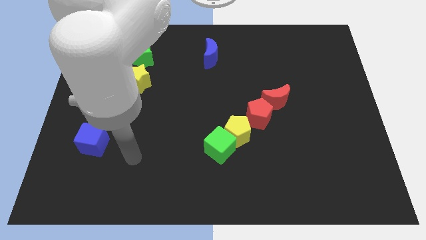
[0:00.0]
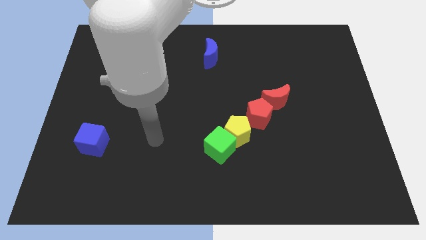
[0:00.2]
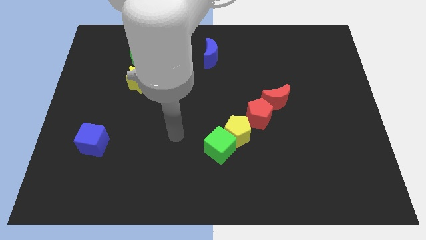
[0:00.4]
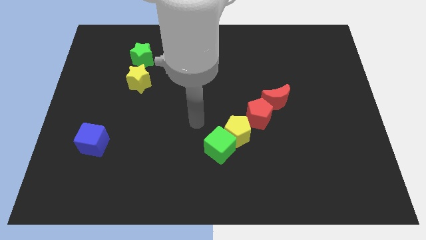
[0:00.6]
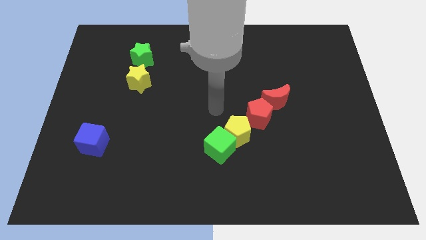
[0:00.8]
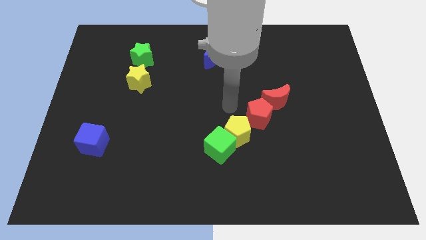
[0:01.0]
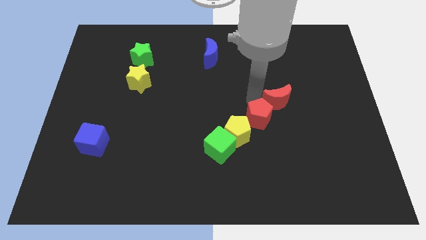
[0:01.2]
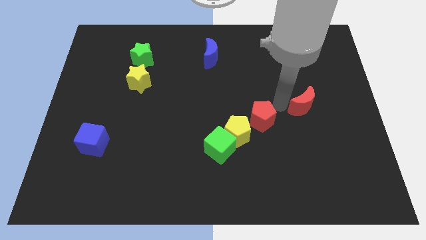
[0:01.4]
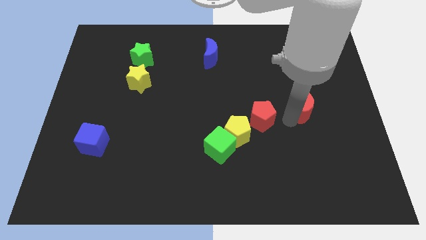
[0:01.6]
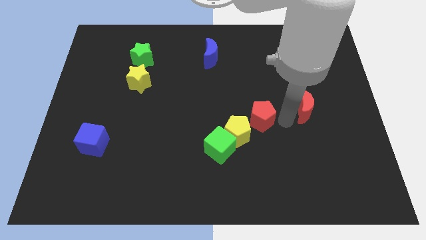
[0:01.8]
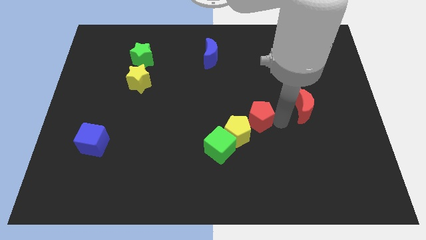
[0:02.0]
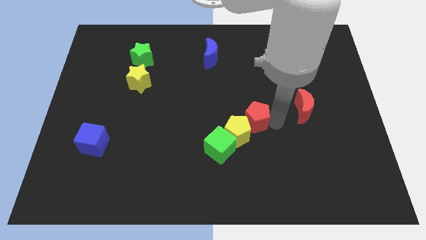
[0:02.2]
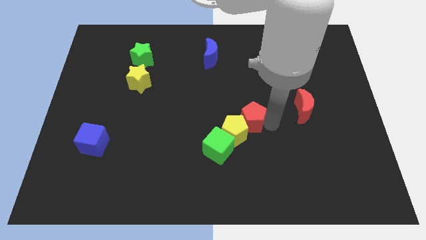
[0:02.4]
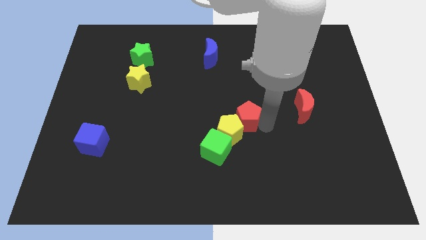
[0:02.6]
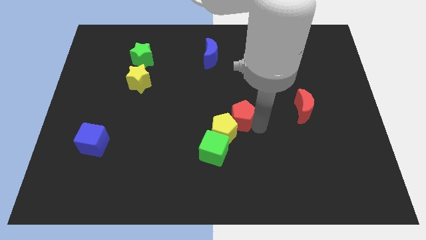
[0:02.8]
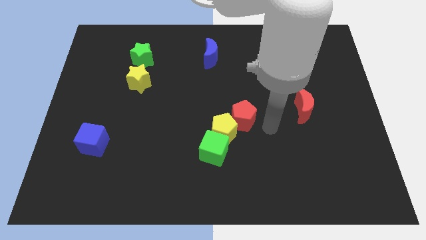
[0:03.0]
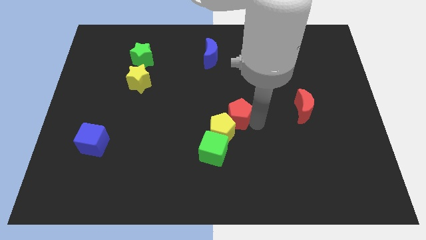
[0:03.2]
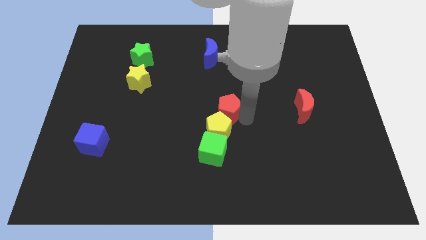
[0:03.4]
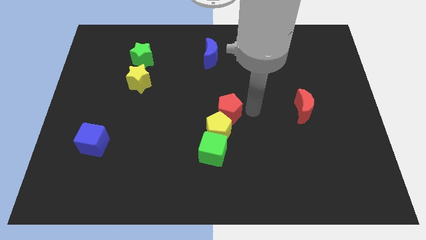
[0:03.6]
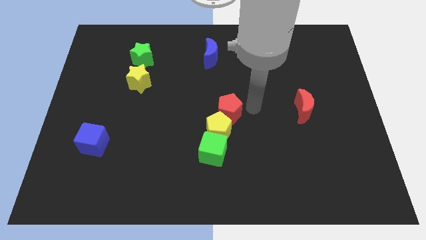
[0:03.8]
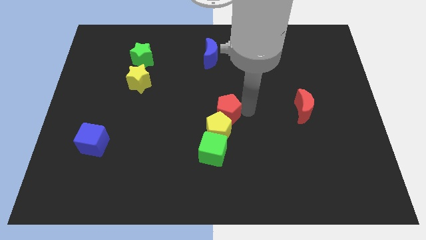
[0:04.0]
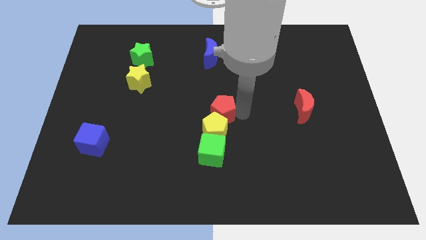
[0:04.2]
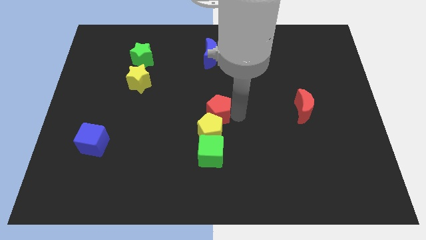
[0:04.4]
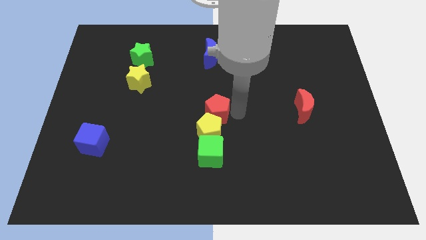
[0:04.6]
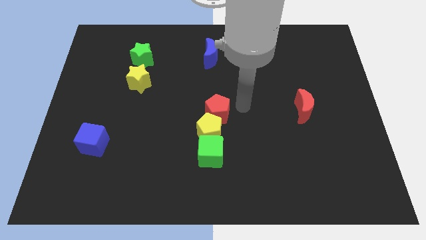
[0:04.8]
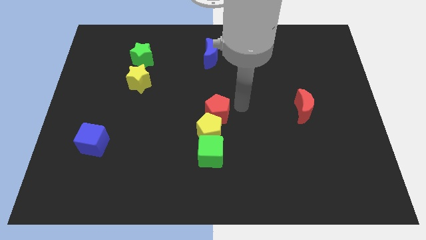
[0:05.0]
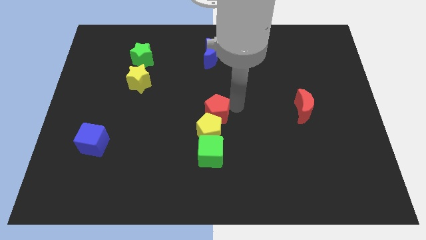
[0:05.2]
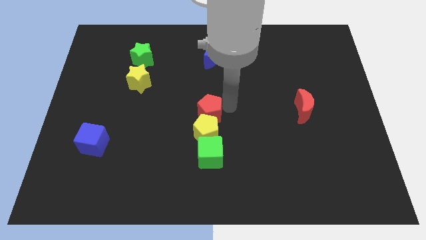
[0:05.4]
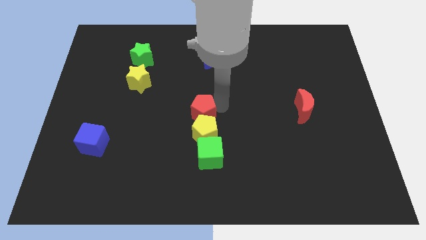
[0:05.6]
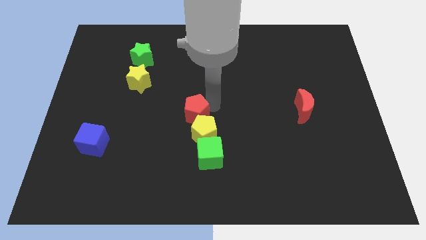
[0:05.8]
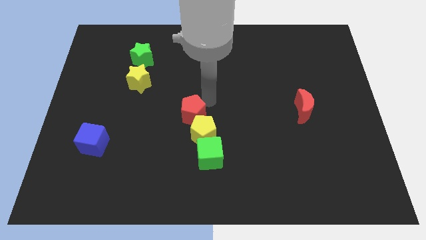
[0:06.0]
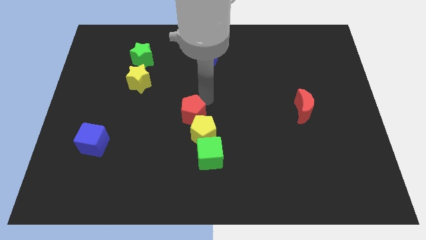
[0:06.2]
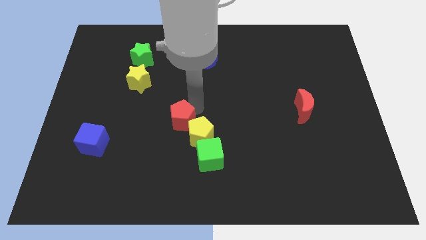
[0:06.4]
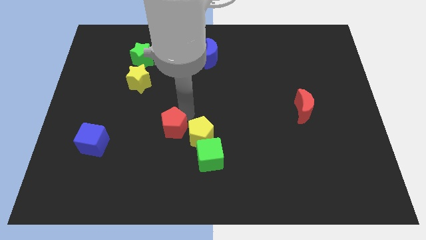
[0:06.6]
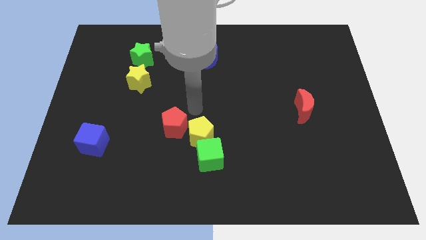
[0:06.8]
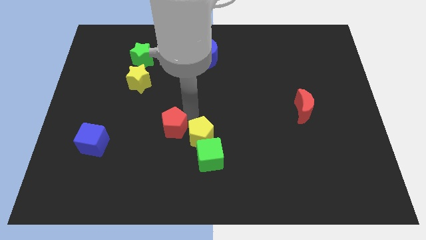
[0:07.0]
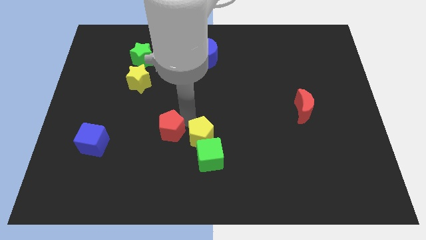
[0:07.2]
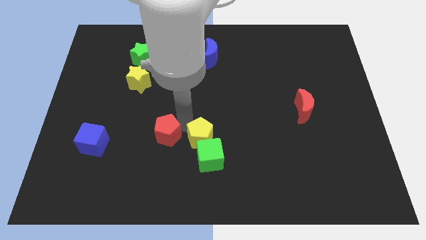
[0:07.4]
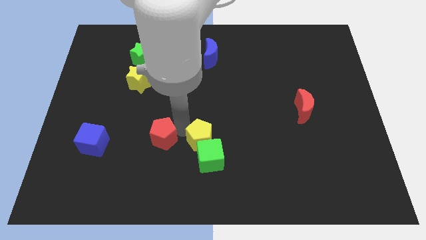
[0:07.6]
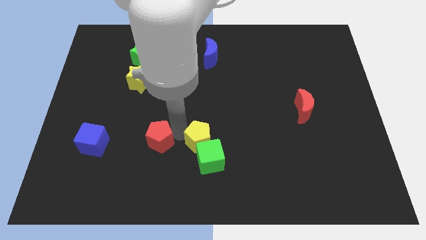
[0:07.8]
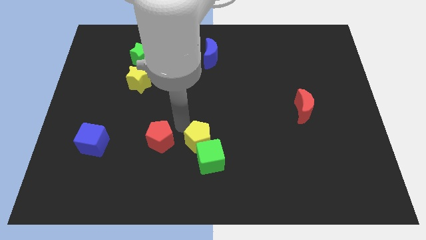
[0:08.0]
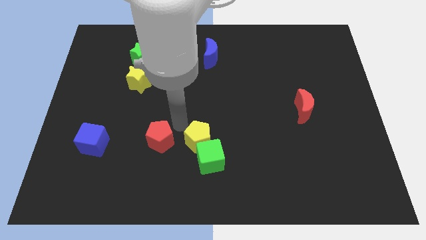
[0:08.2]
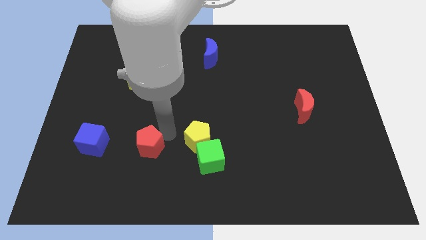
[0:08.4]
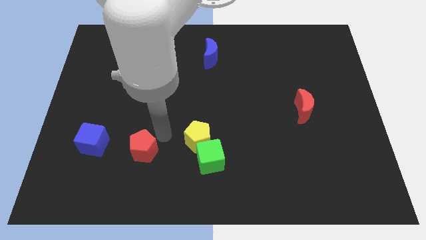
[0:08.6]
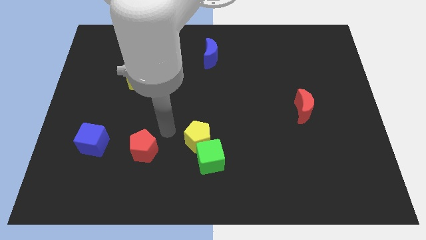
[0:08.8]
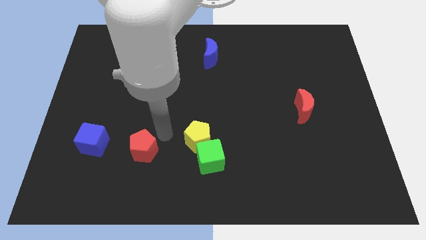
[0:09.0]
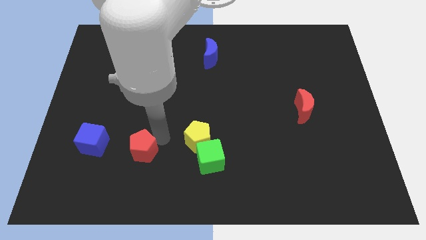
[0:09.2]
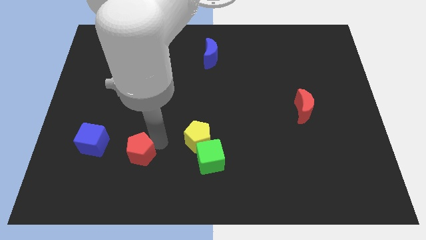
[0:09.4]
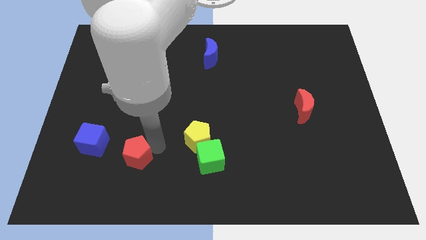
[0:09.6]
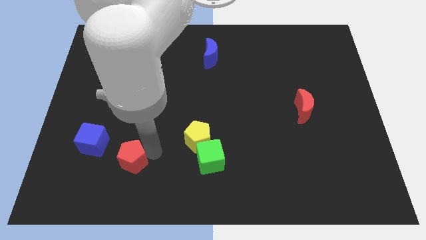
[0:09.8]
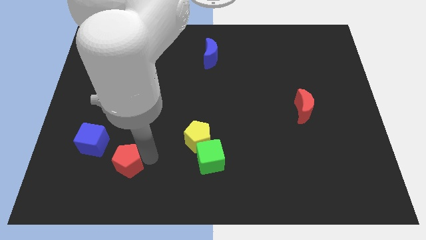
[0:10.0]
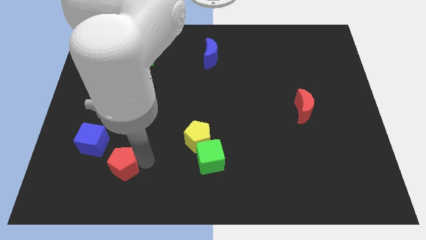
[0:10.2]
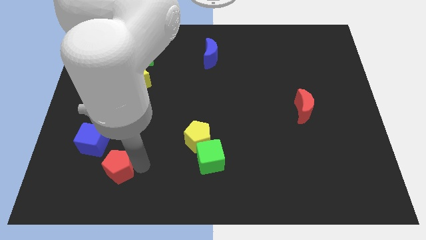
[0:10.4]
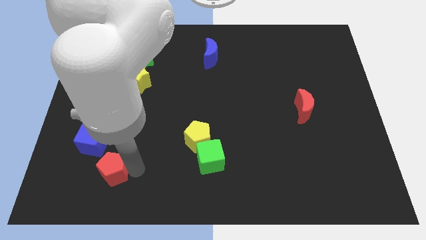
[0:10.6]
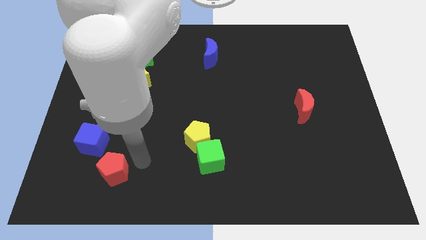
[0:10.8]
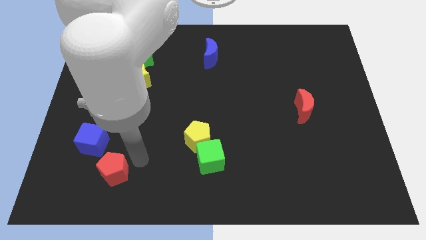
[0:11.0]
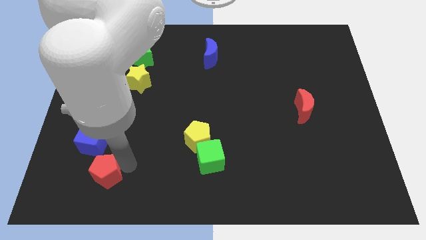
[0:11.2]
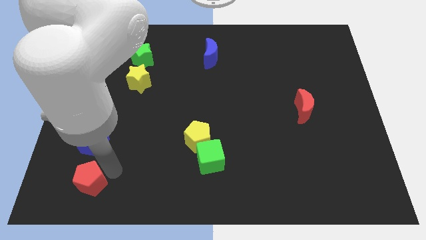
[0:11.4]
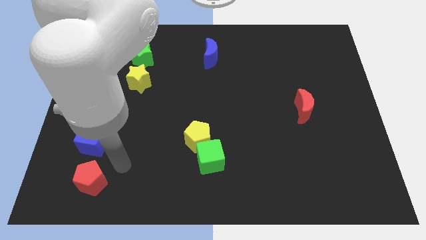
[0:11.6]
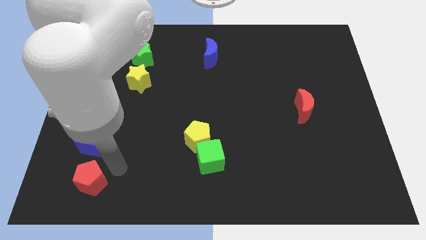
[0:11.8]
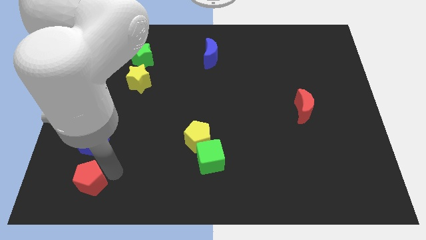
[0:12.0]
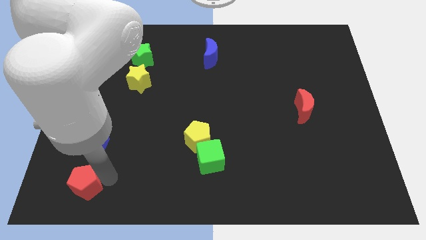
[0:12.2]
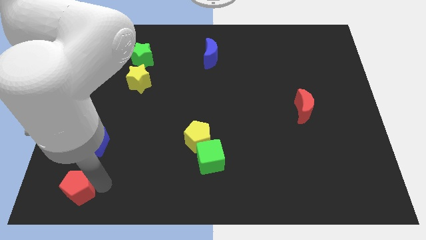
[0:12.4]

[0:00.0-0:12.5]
push the red pentagon to the bottom left

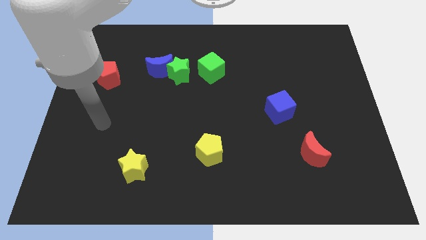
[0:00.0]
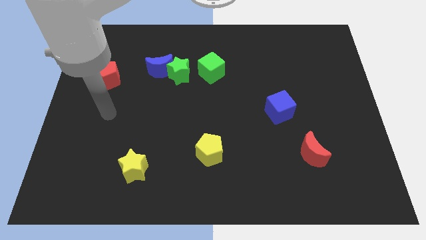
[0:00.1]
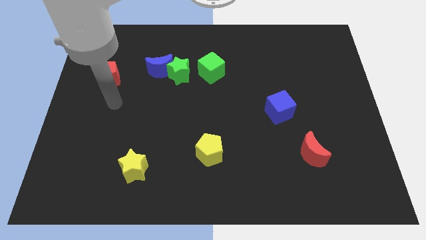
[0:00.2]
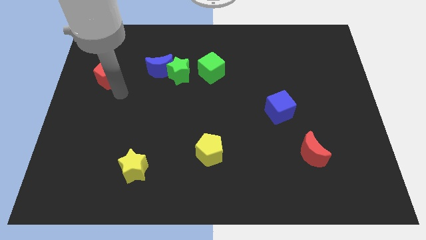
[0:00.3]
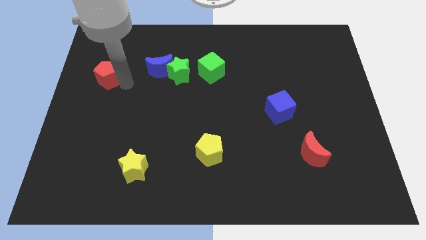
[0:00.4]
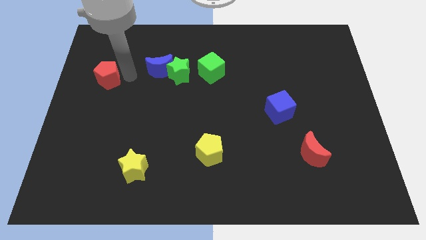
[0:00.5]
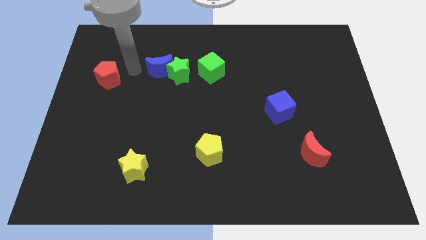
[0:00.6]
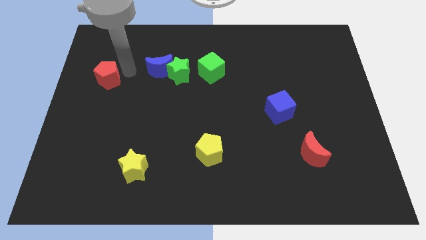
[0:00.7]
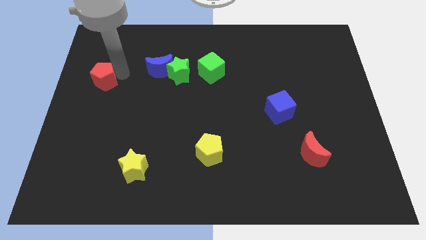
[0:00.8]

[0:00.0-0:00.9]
put the red pentagon to the center left
